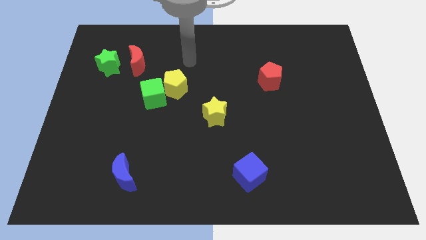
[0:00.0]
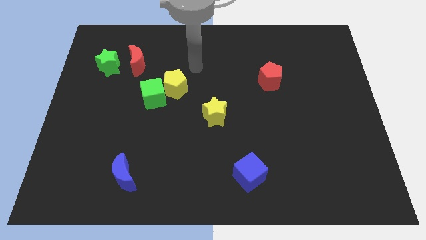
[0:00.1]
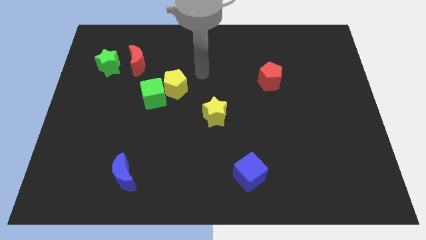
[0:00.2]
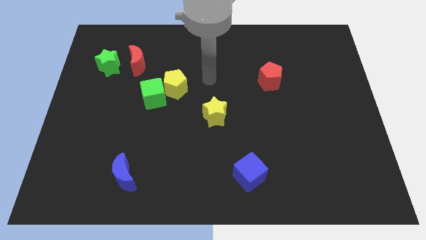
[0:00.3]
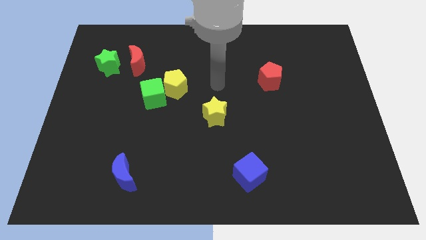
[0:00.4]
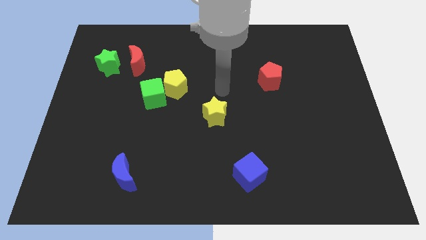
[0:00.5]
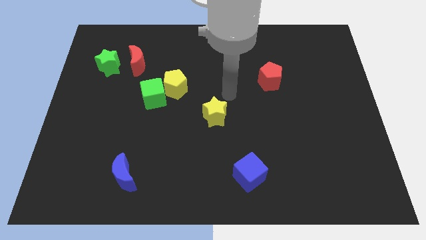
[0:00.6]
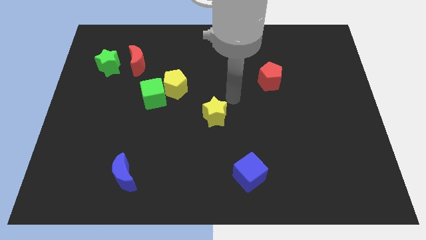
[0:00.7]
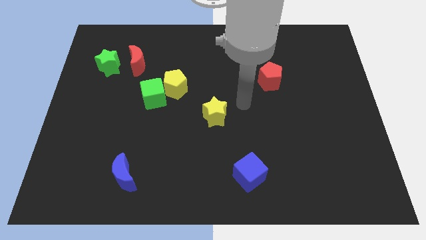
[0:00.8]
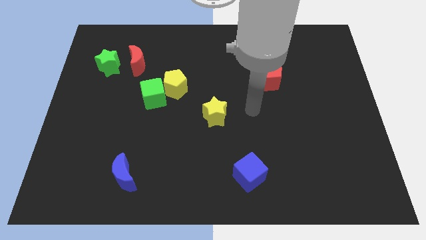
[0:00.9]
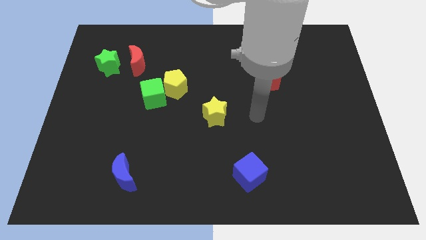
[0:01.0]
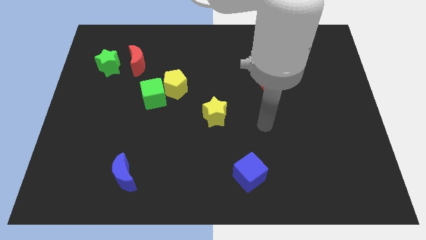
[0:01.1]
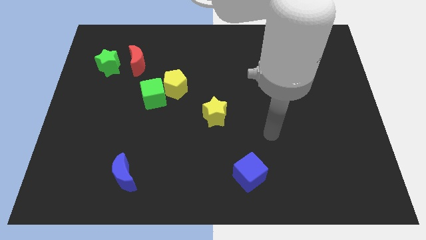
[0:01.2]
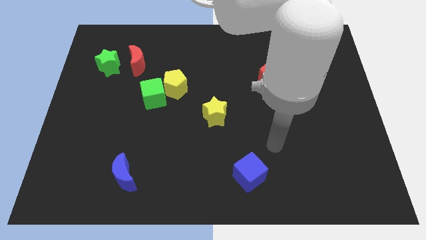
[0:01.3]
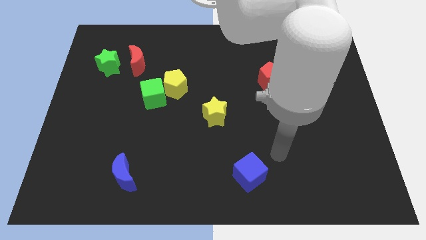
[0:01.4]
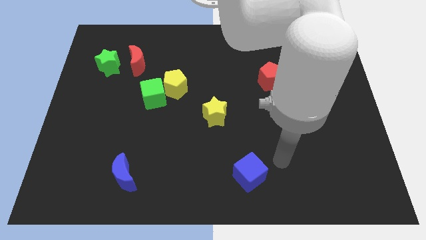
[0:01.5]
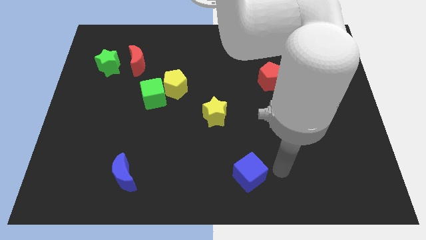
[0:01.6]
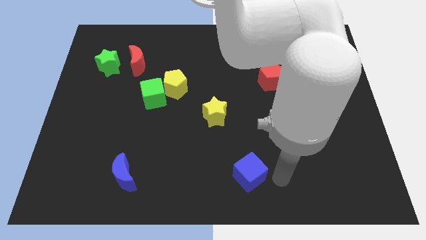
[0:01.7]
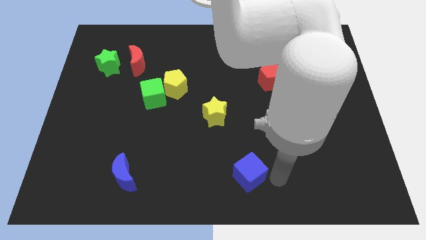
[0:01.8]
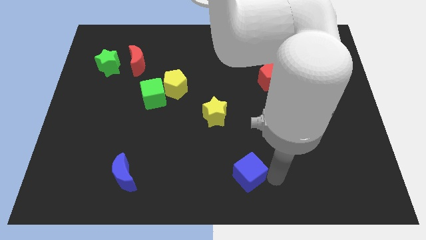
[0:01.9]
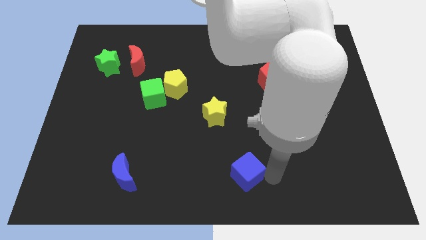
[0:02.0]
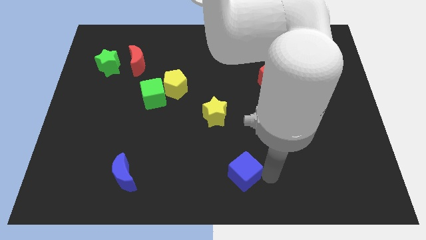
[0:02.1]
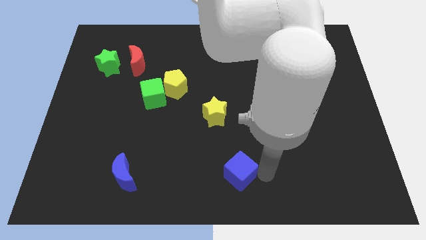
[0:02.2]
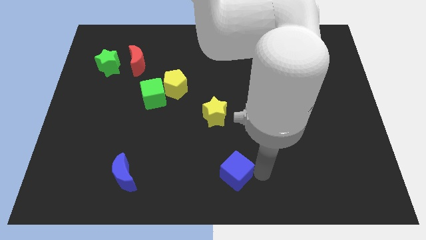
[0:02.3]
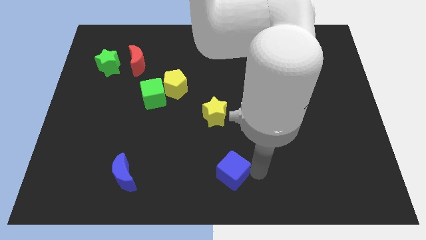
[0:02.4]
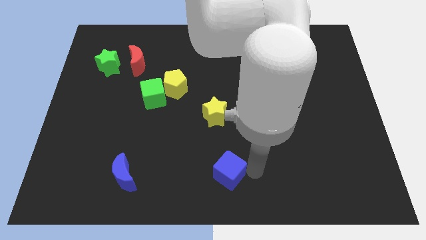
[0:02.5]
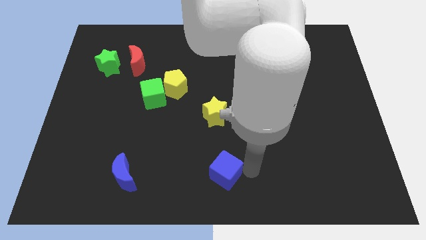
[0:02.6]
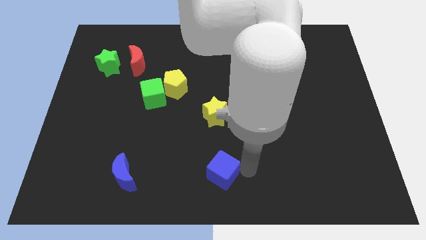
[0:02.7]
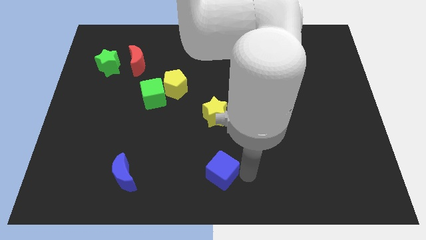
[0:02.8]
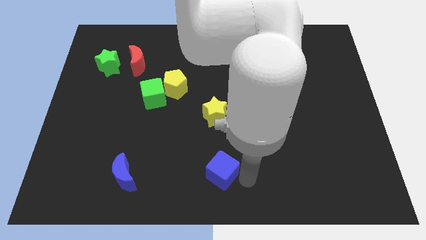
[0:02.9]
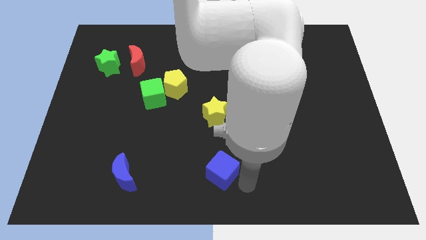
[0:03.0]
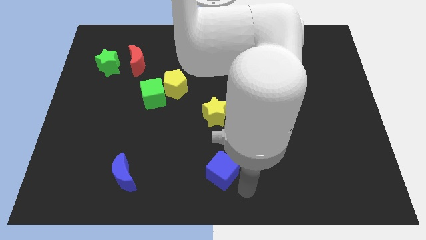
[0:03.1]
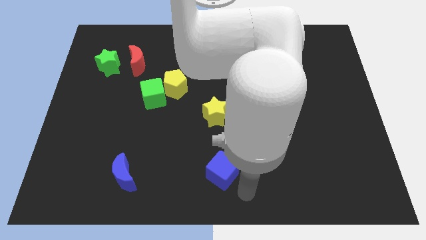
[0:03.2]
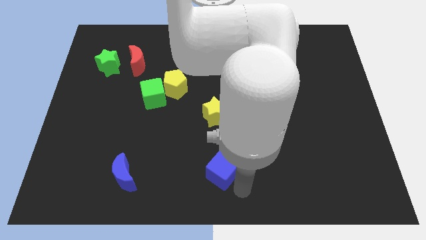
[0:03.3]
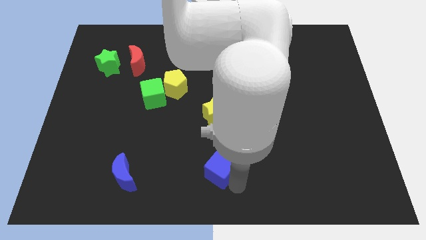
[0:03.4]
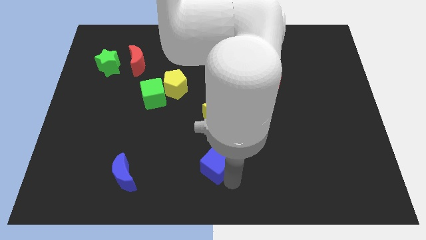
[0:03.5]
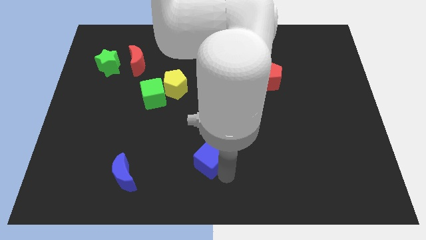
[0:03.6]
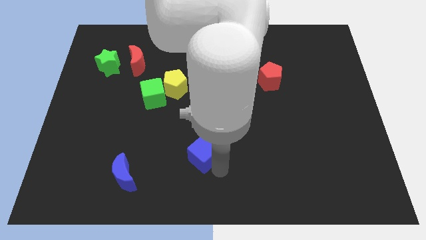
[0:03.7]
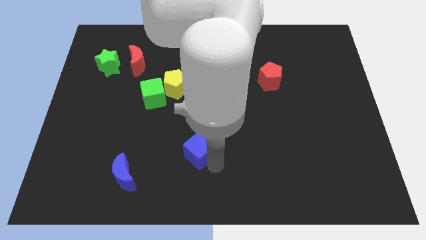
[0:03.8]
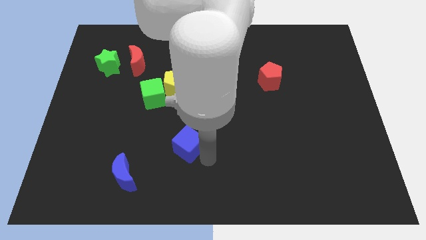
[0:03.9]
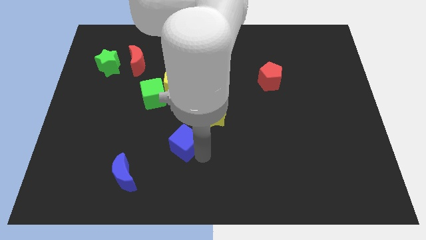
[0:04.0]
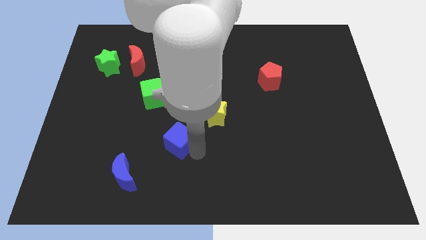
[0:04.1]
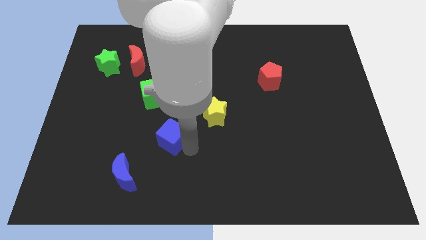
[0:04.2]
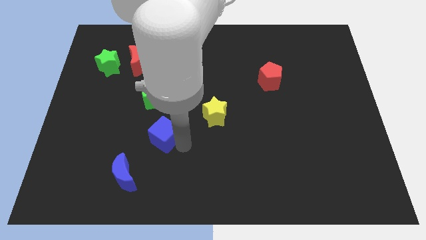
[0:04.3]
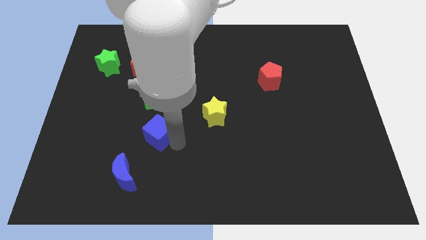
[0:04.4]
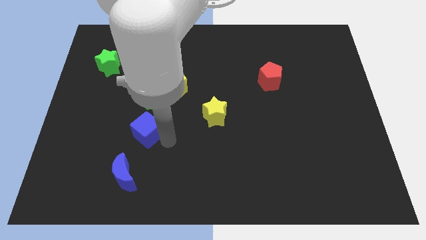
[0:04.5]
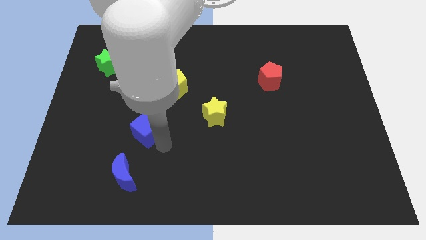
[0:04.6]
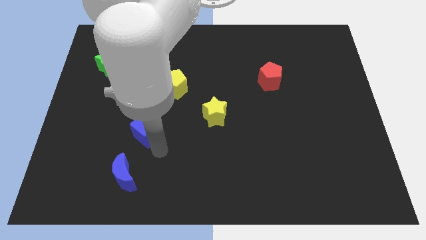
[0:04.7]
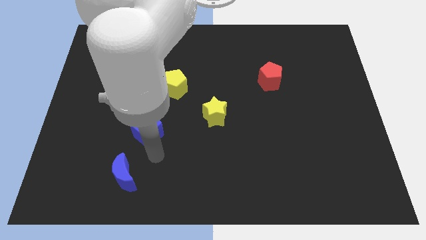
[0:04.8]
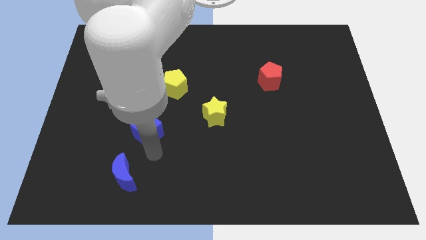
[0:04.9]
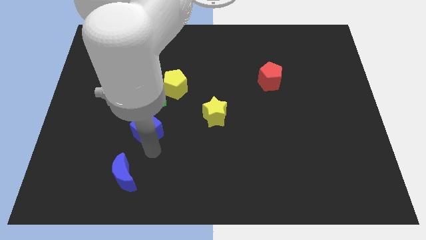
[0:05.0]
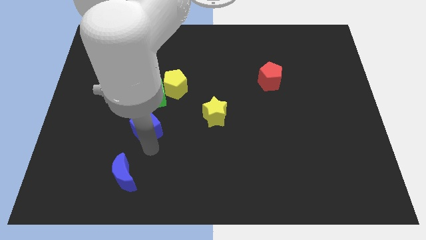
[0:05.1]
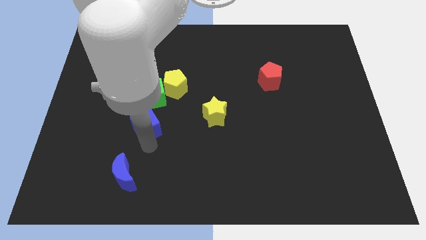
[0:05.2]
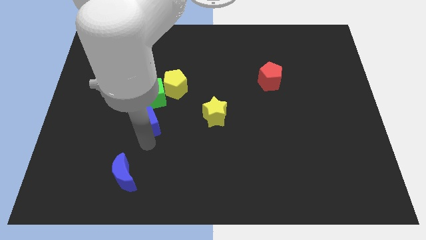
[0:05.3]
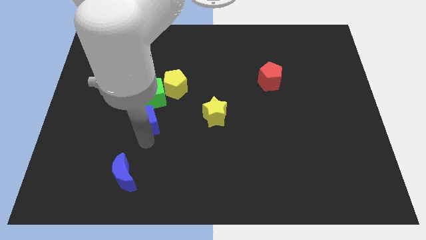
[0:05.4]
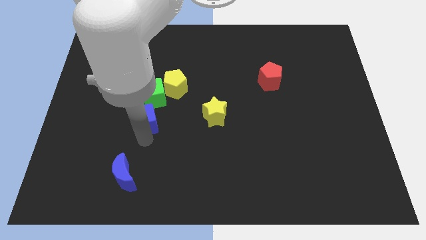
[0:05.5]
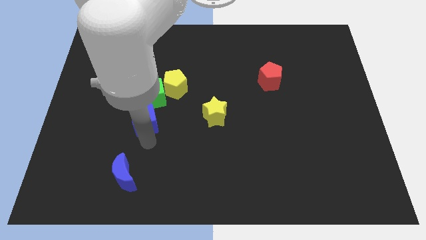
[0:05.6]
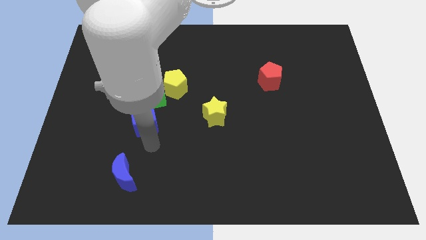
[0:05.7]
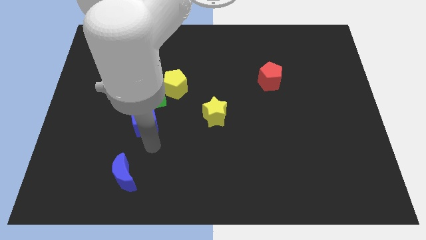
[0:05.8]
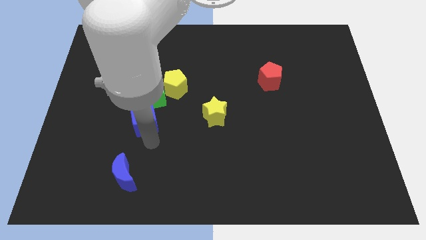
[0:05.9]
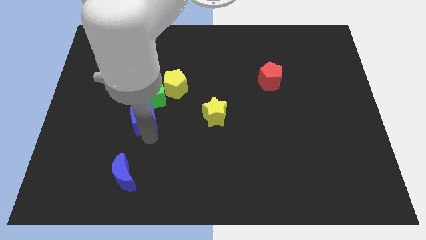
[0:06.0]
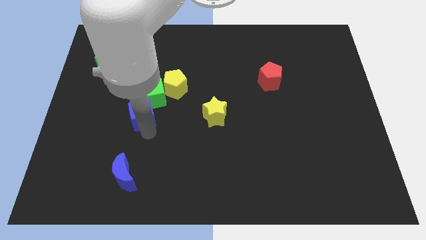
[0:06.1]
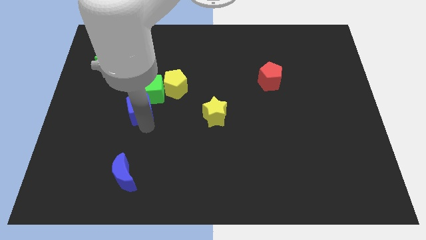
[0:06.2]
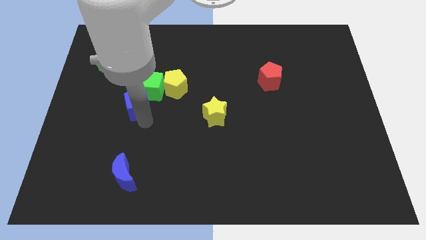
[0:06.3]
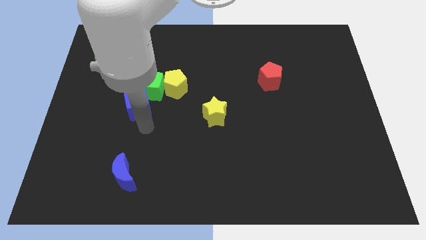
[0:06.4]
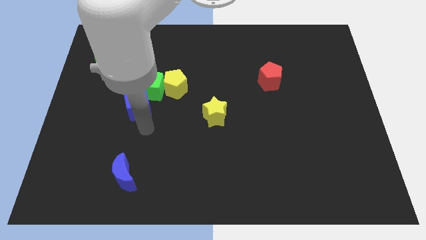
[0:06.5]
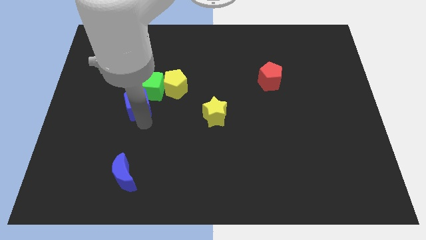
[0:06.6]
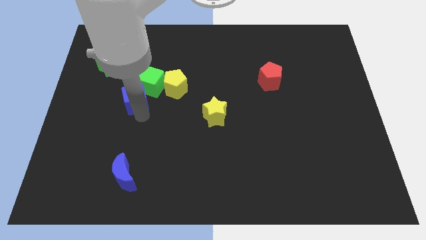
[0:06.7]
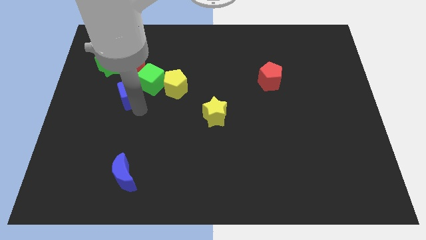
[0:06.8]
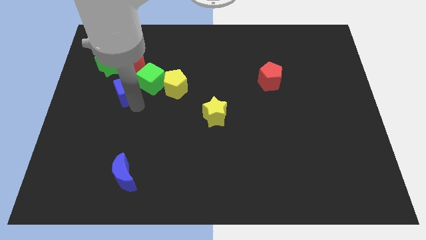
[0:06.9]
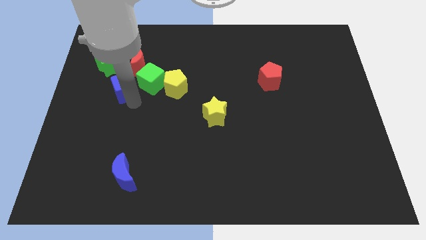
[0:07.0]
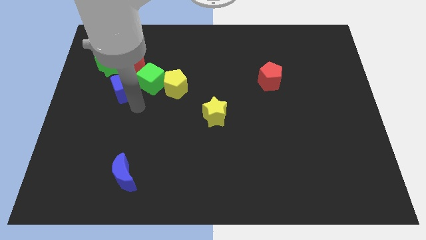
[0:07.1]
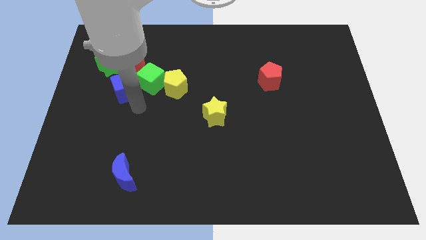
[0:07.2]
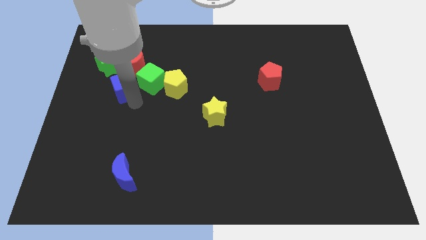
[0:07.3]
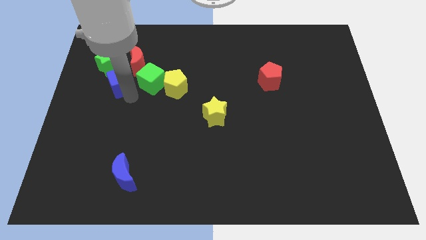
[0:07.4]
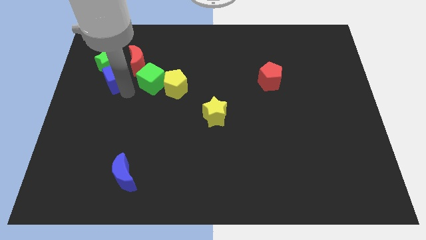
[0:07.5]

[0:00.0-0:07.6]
slide the blue cube towards the green star
